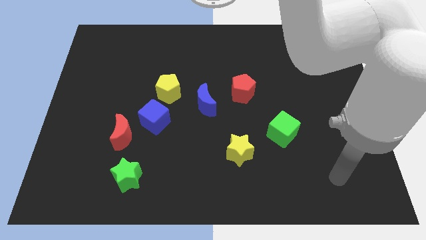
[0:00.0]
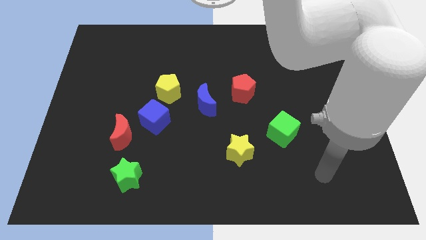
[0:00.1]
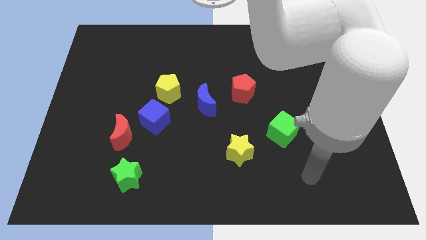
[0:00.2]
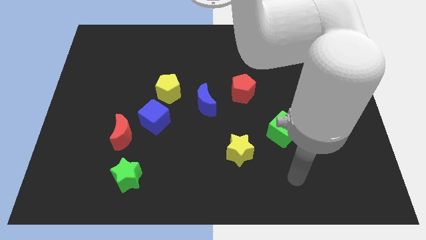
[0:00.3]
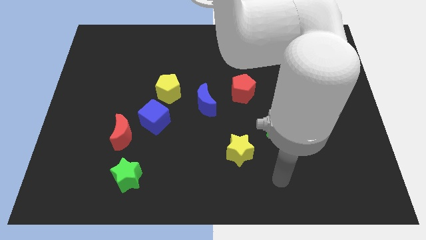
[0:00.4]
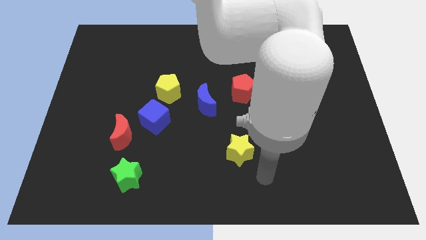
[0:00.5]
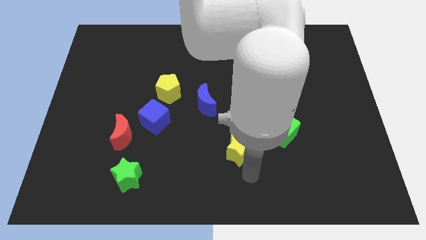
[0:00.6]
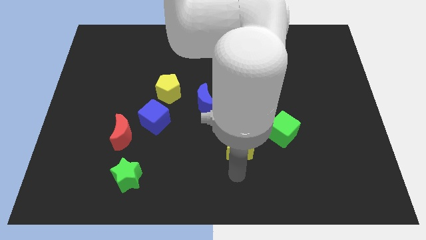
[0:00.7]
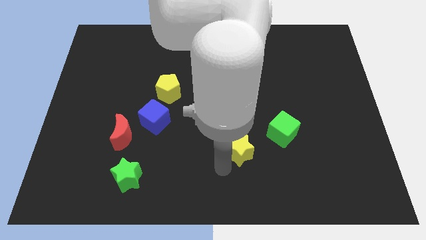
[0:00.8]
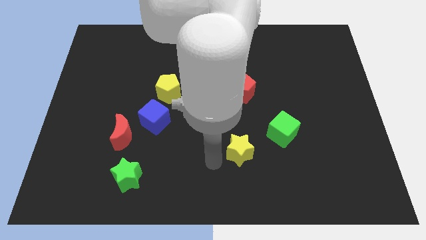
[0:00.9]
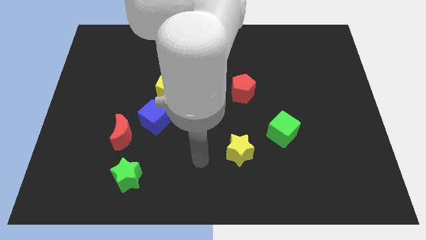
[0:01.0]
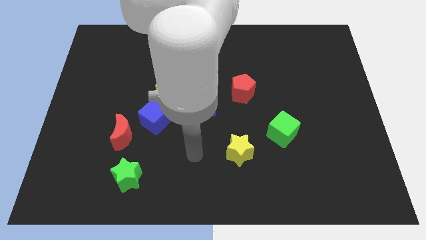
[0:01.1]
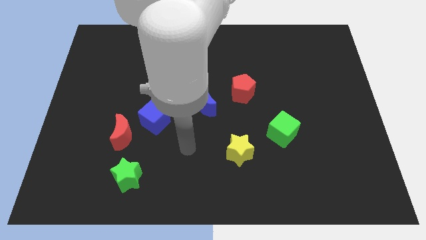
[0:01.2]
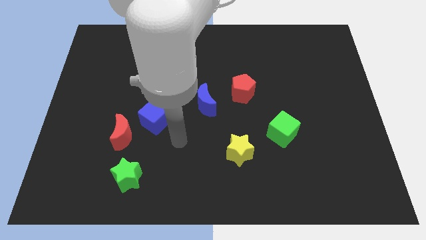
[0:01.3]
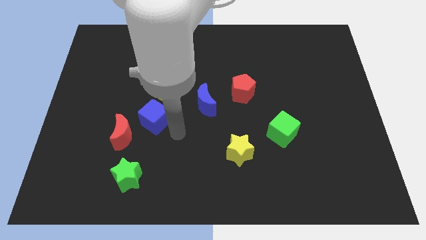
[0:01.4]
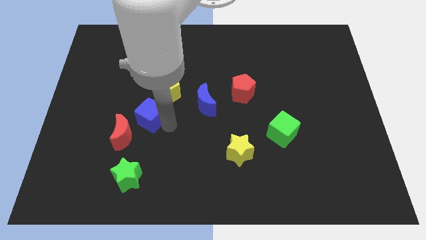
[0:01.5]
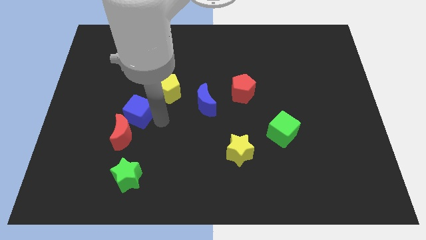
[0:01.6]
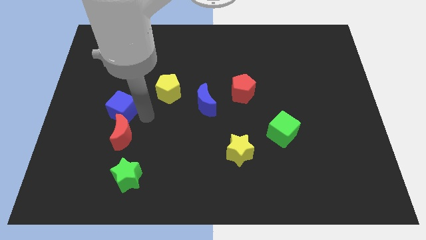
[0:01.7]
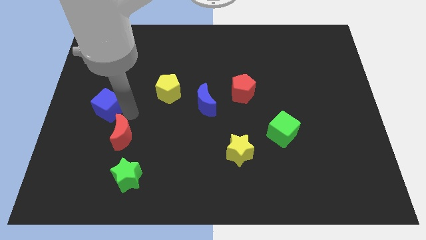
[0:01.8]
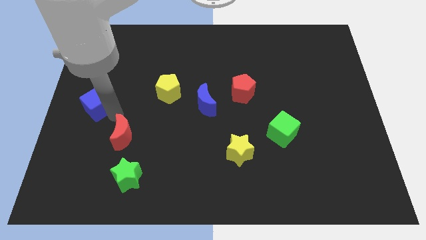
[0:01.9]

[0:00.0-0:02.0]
pull the red moon apart from the blue cube

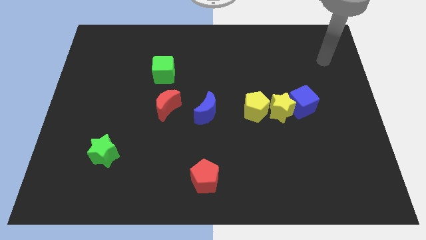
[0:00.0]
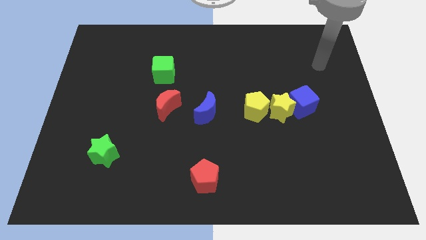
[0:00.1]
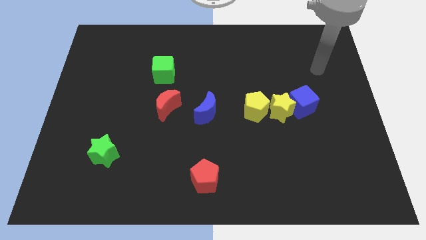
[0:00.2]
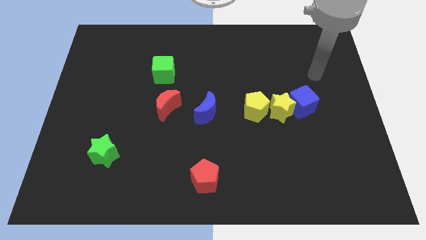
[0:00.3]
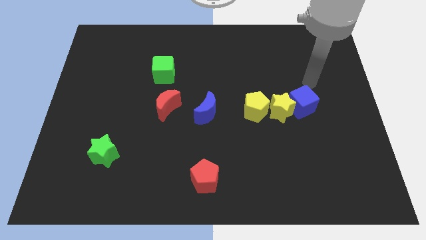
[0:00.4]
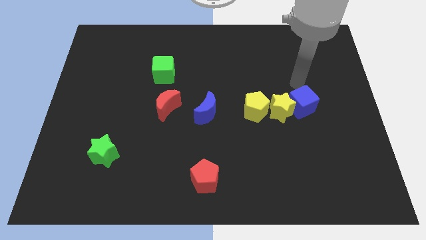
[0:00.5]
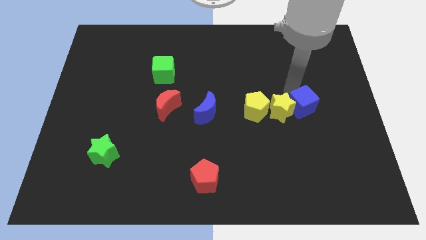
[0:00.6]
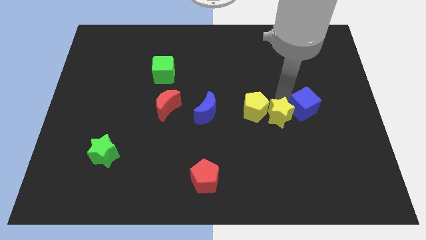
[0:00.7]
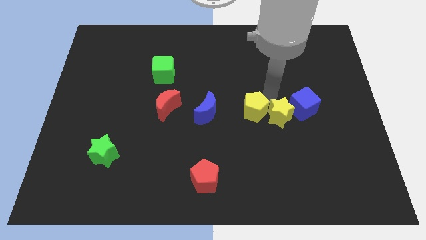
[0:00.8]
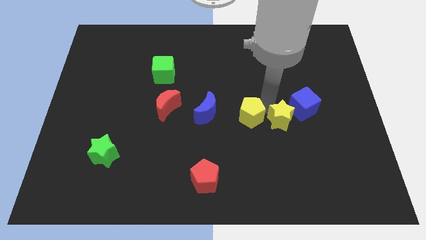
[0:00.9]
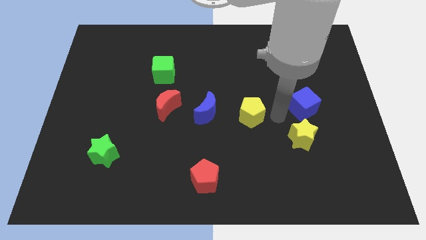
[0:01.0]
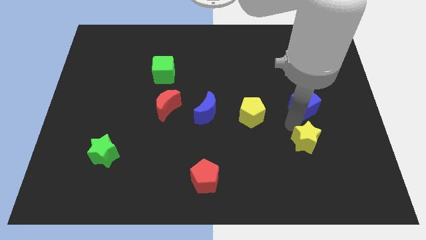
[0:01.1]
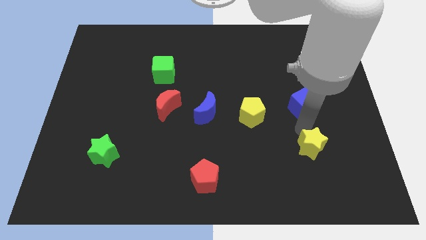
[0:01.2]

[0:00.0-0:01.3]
separate the blue cube from the yellow star

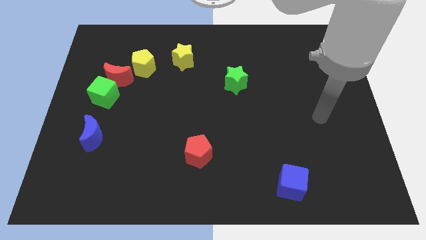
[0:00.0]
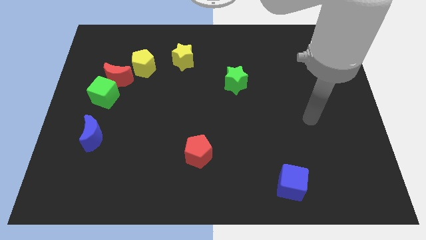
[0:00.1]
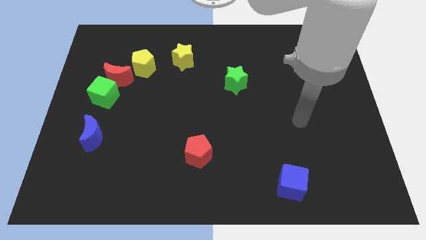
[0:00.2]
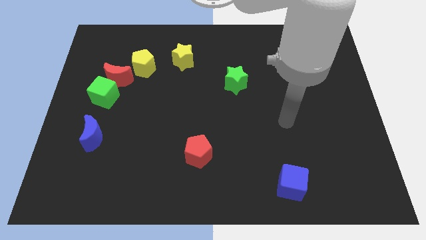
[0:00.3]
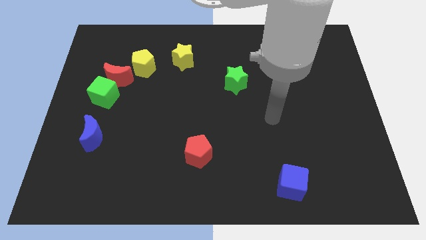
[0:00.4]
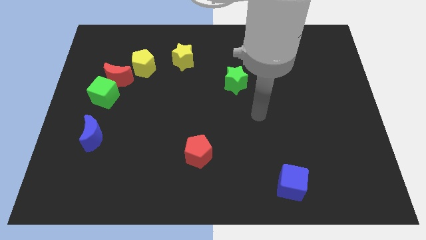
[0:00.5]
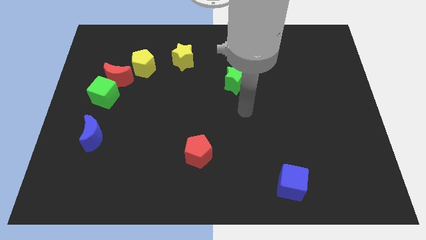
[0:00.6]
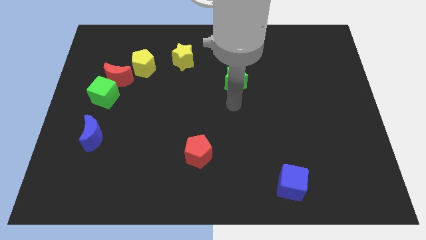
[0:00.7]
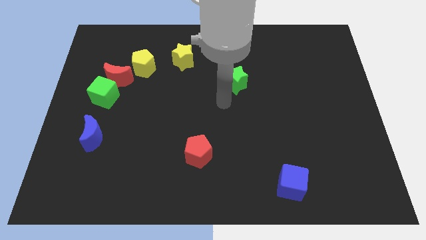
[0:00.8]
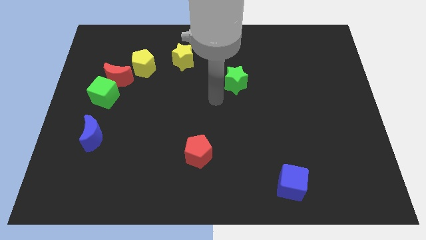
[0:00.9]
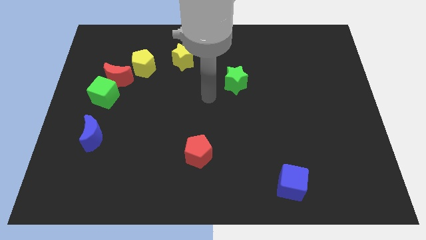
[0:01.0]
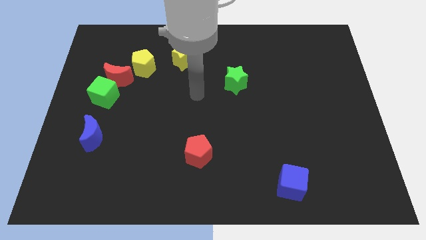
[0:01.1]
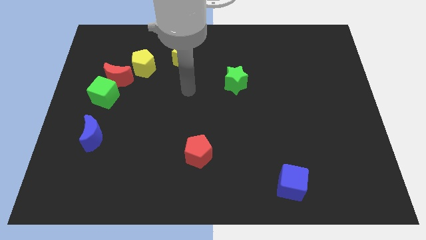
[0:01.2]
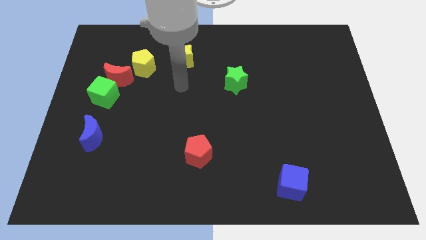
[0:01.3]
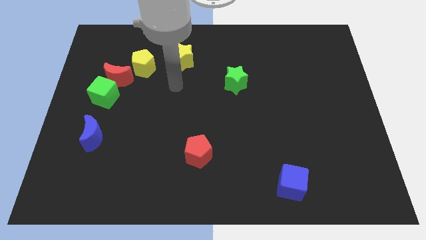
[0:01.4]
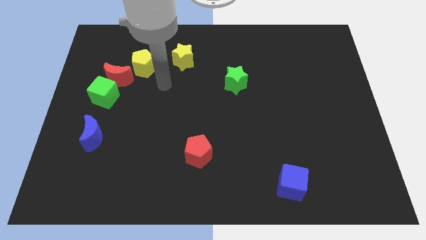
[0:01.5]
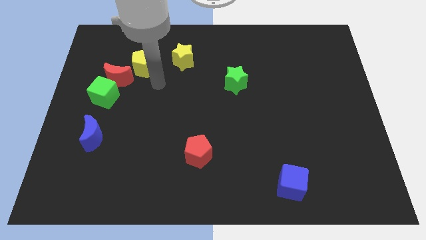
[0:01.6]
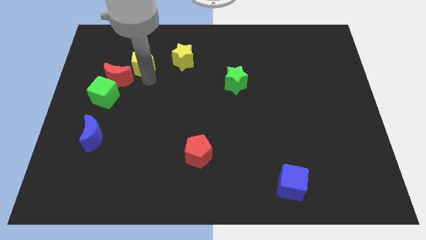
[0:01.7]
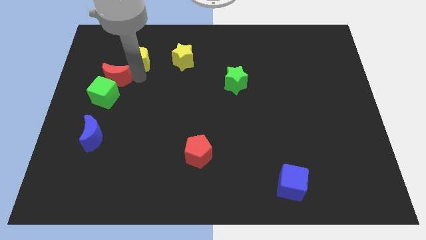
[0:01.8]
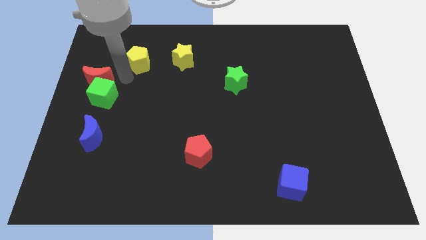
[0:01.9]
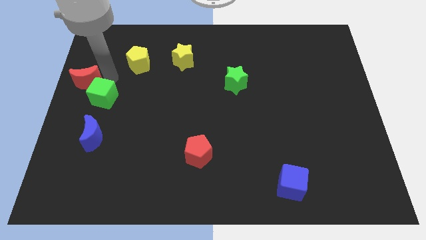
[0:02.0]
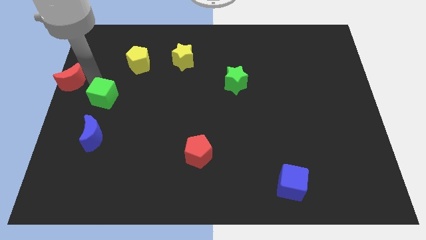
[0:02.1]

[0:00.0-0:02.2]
move the green cube away from the red moon

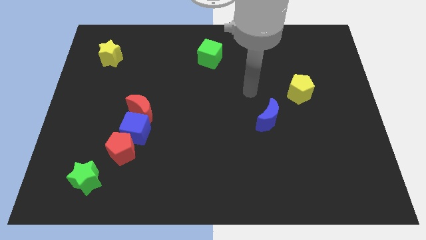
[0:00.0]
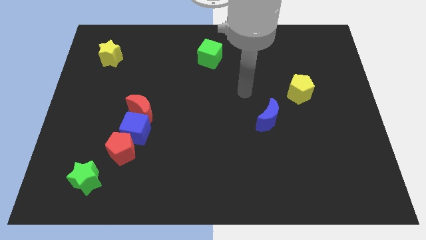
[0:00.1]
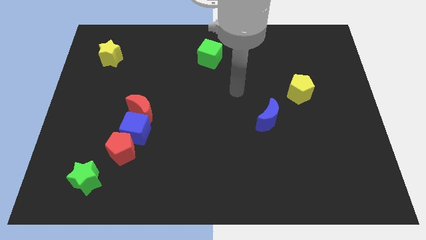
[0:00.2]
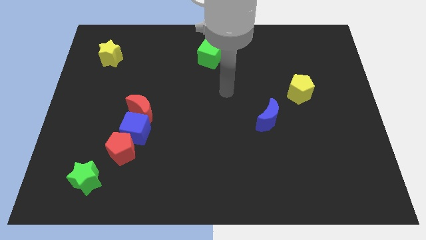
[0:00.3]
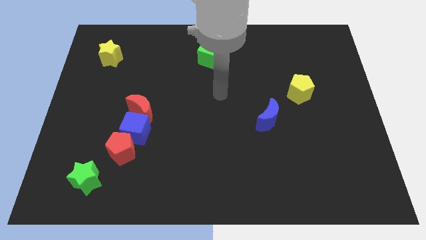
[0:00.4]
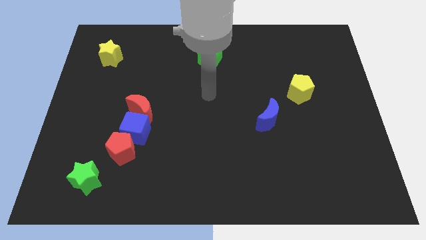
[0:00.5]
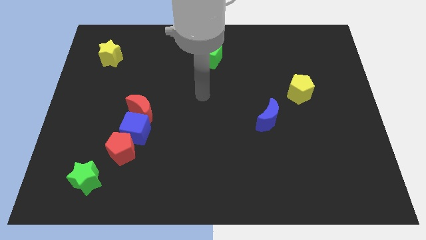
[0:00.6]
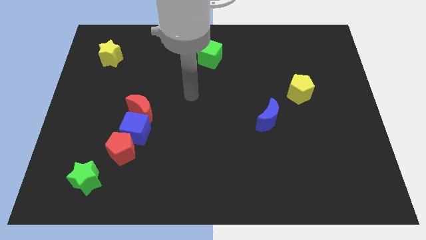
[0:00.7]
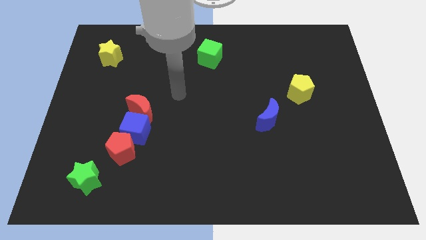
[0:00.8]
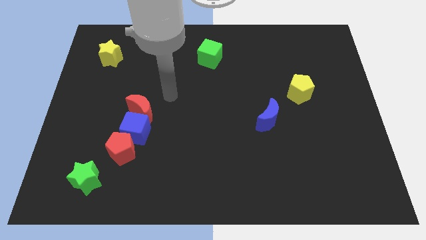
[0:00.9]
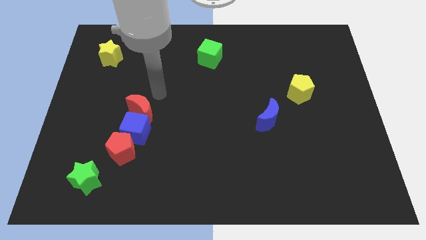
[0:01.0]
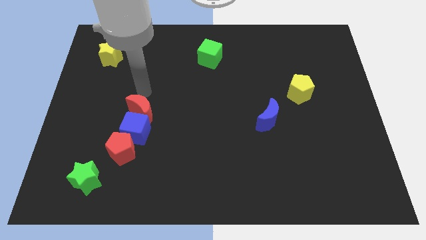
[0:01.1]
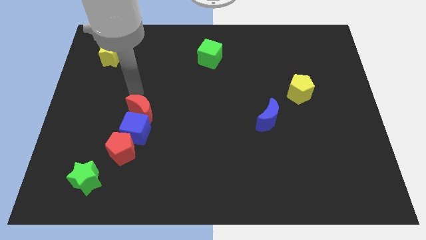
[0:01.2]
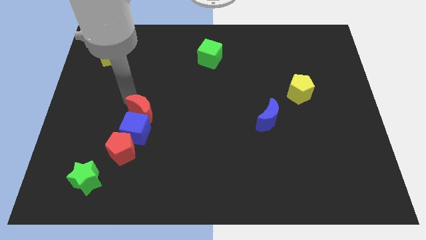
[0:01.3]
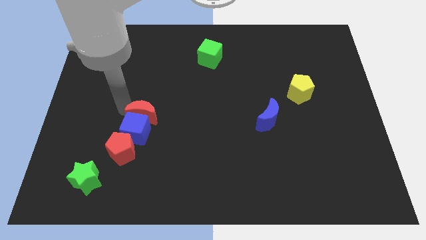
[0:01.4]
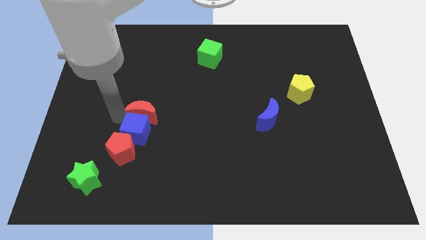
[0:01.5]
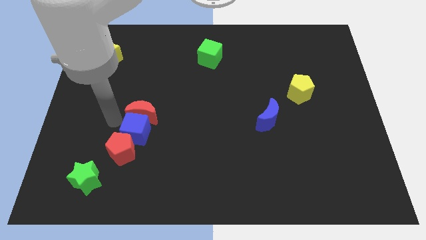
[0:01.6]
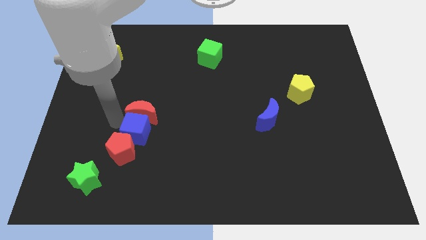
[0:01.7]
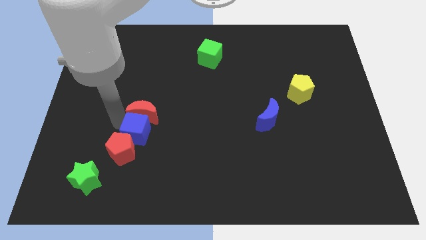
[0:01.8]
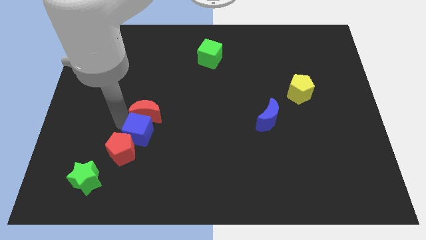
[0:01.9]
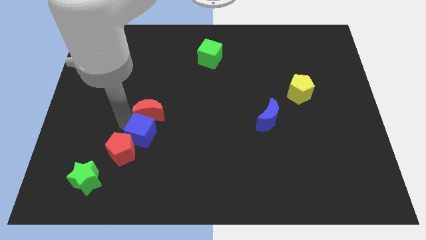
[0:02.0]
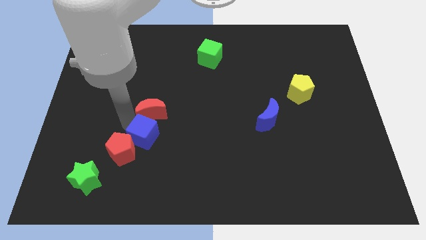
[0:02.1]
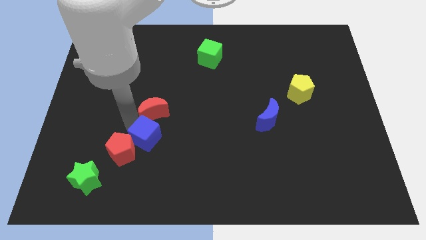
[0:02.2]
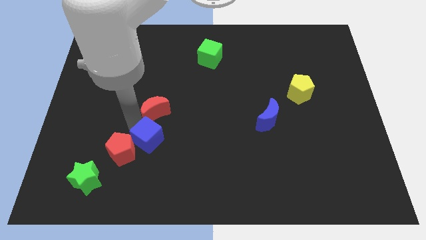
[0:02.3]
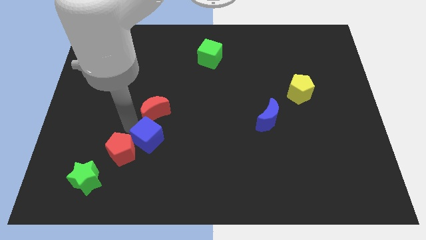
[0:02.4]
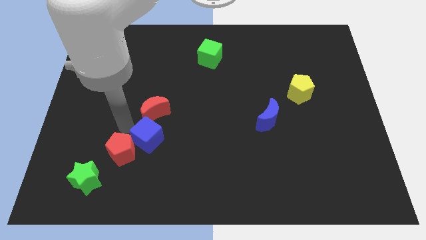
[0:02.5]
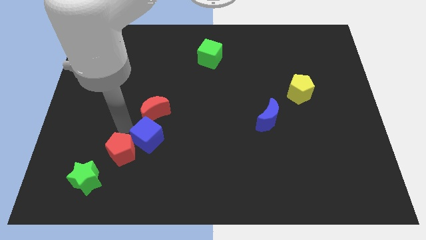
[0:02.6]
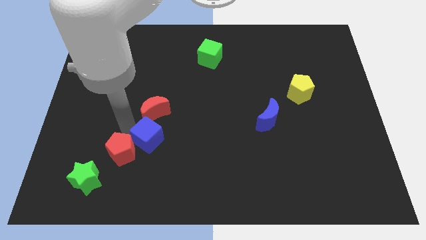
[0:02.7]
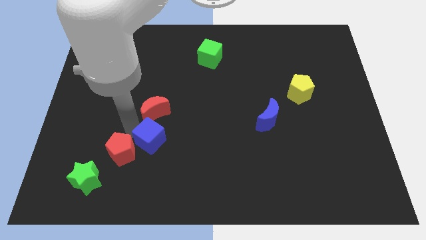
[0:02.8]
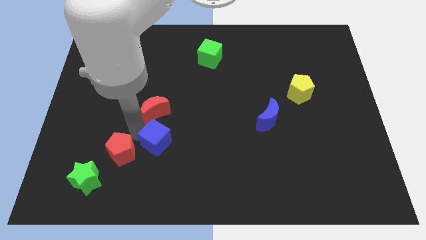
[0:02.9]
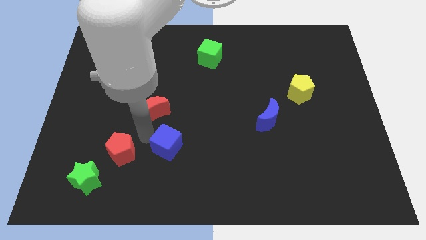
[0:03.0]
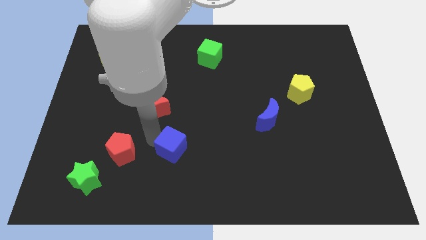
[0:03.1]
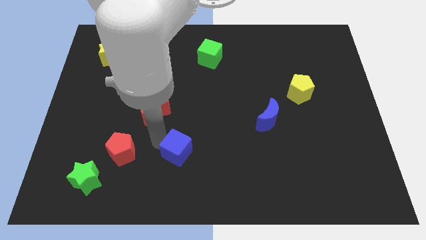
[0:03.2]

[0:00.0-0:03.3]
separate the blue cube from the red pentagon and red moon

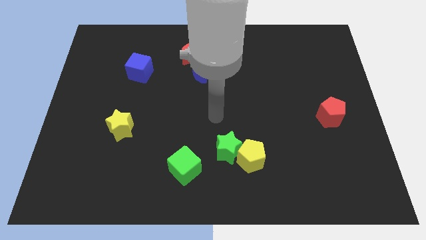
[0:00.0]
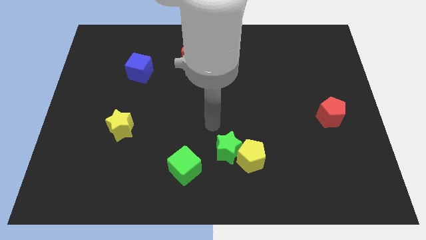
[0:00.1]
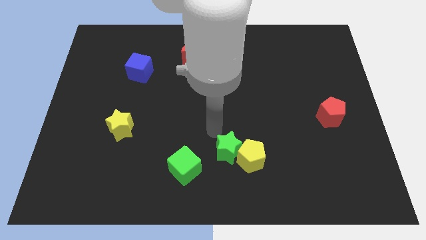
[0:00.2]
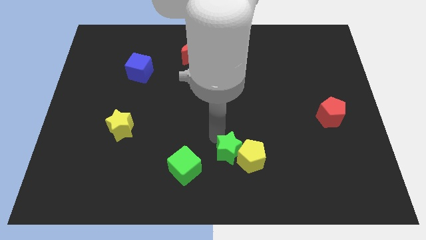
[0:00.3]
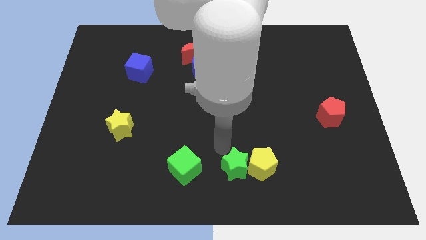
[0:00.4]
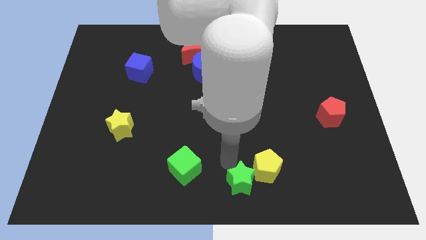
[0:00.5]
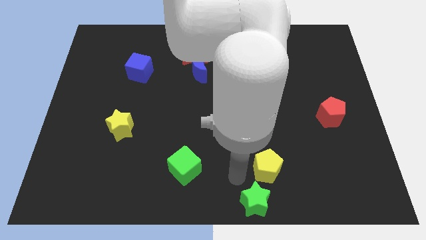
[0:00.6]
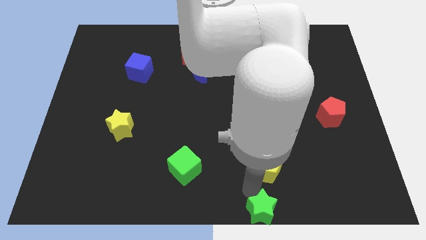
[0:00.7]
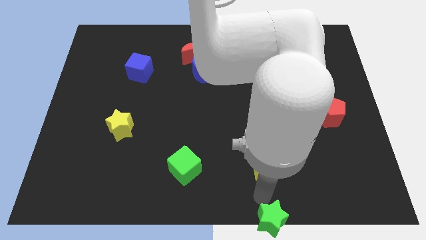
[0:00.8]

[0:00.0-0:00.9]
move the yellow pentagon away from the green star
